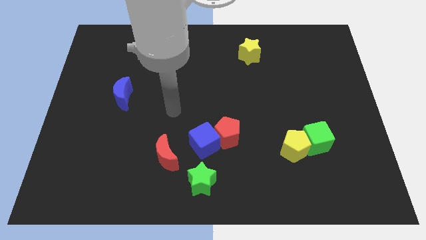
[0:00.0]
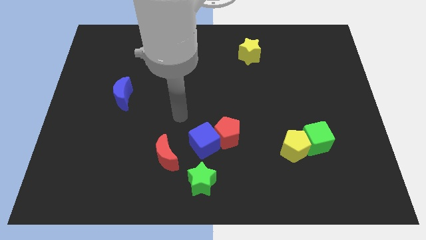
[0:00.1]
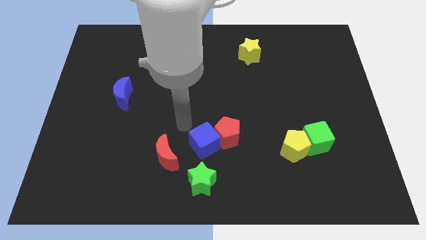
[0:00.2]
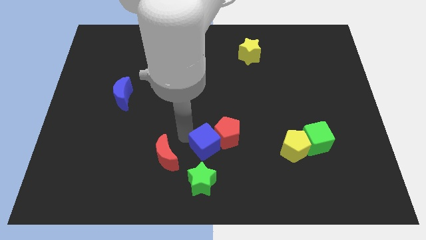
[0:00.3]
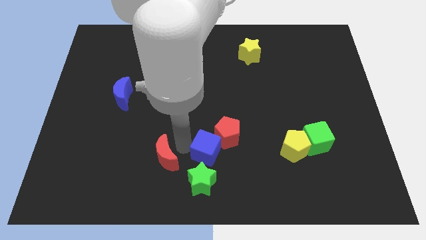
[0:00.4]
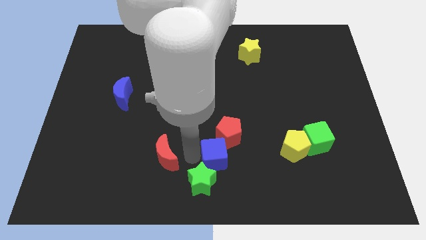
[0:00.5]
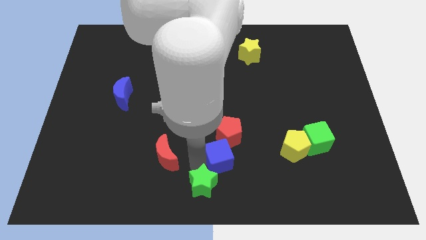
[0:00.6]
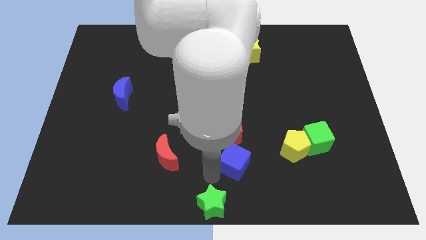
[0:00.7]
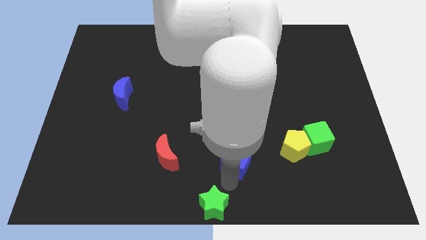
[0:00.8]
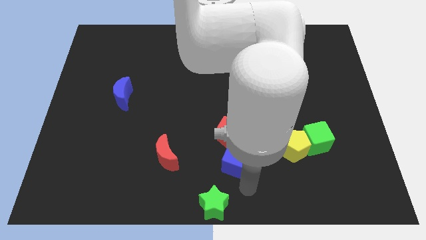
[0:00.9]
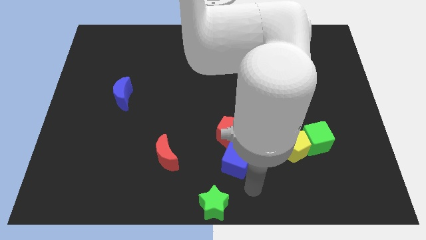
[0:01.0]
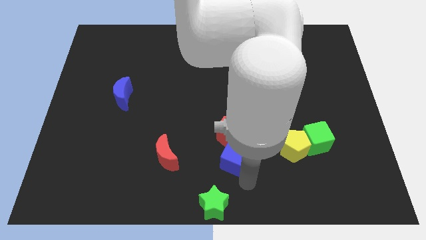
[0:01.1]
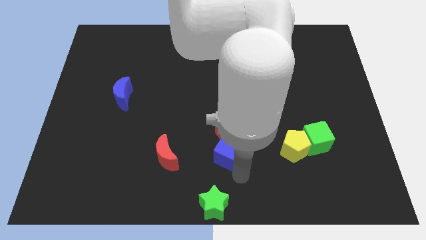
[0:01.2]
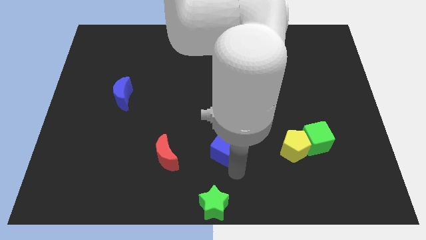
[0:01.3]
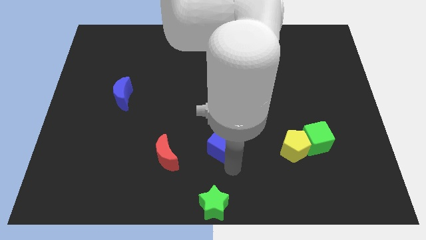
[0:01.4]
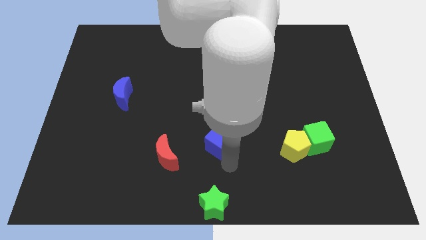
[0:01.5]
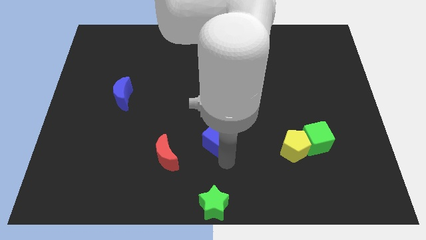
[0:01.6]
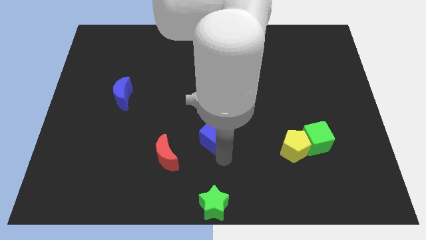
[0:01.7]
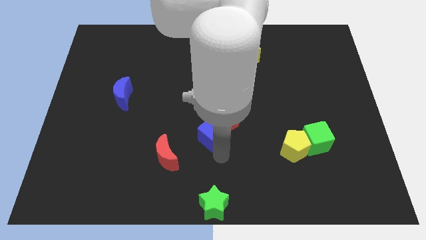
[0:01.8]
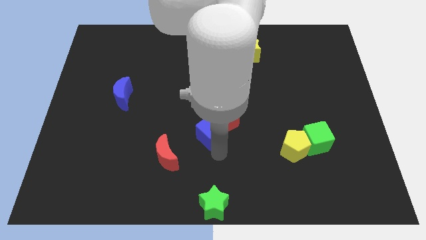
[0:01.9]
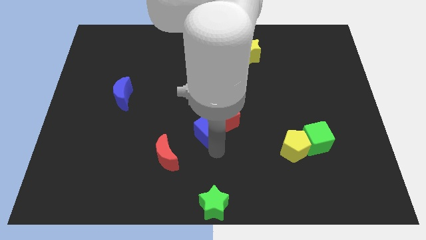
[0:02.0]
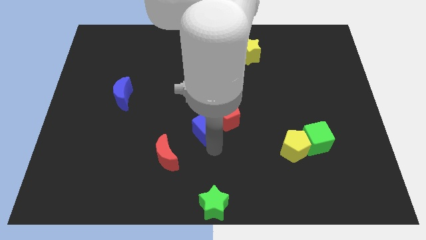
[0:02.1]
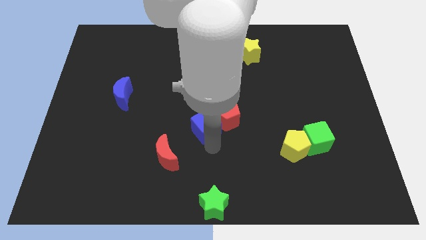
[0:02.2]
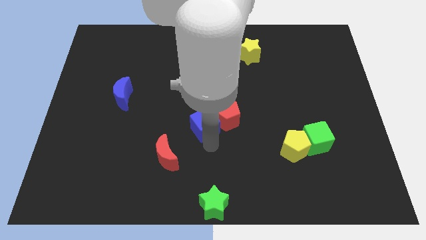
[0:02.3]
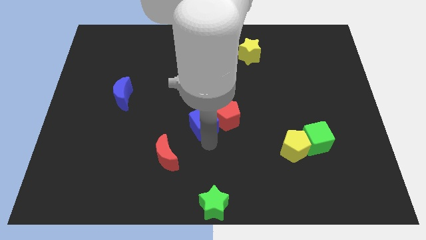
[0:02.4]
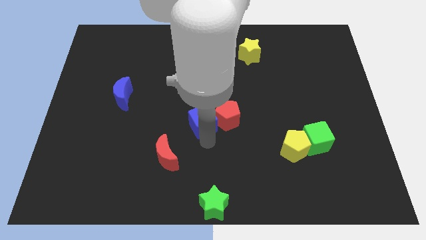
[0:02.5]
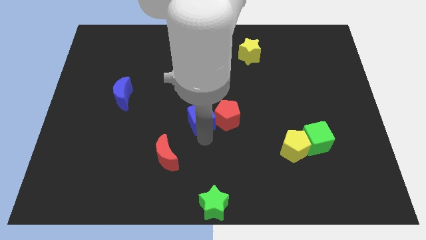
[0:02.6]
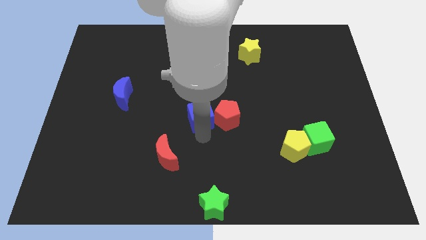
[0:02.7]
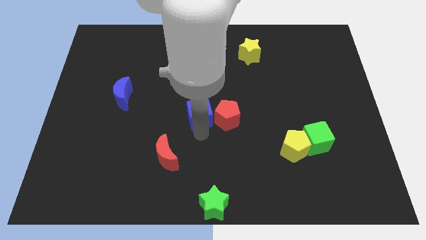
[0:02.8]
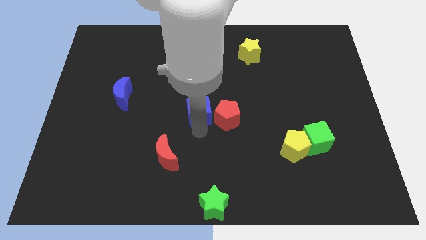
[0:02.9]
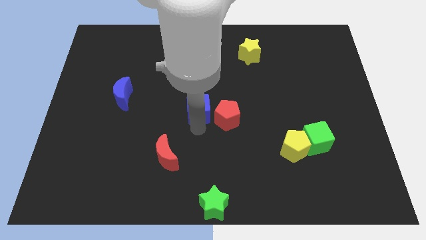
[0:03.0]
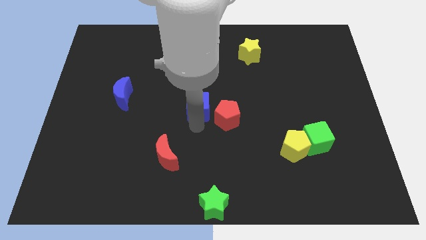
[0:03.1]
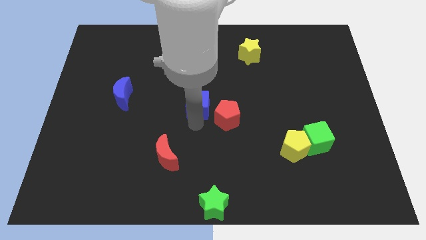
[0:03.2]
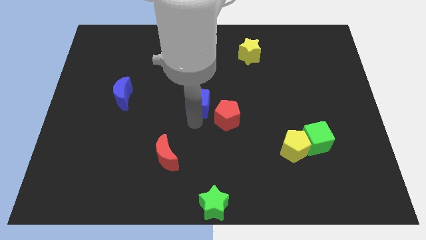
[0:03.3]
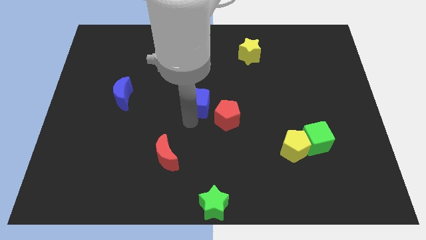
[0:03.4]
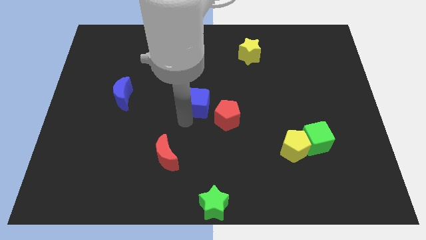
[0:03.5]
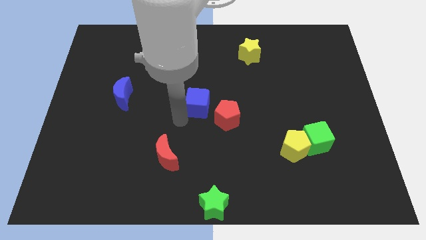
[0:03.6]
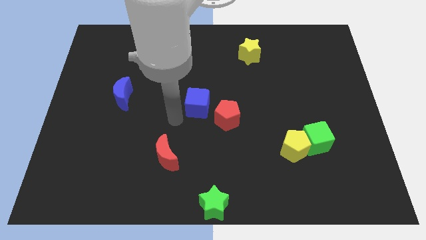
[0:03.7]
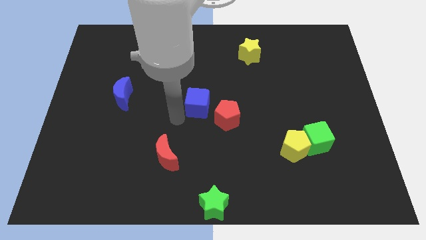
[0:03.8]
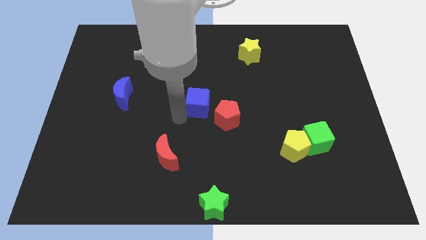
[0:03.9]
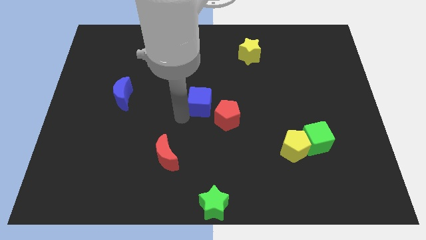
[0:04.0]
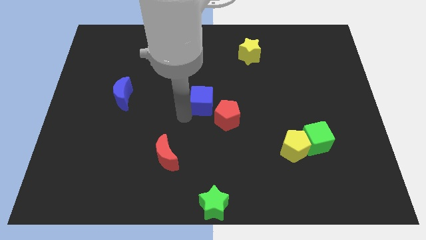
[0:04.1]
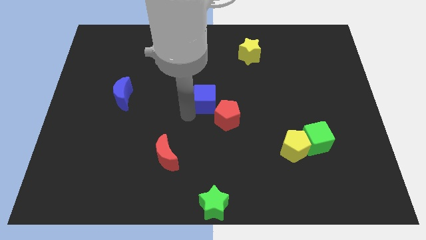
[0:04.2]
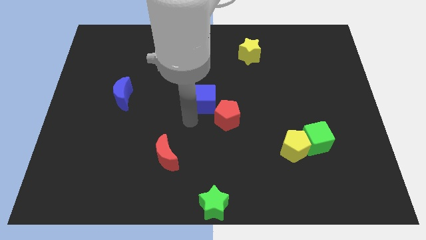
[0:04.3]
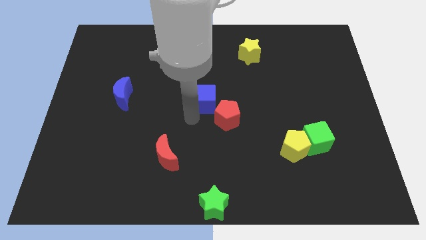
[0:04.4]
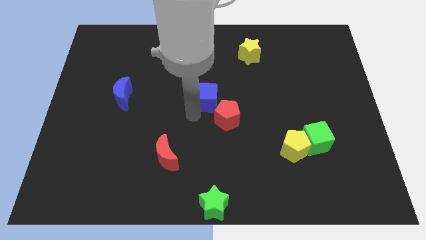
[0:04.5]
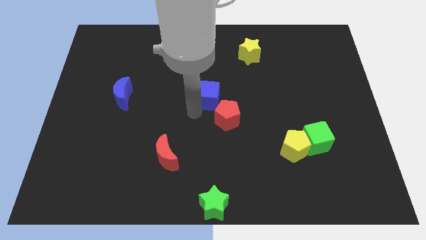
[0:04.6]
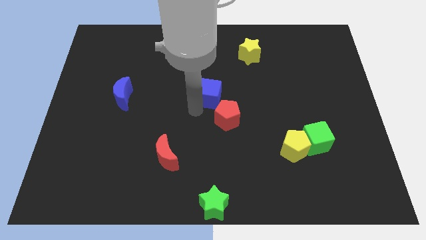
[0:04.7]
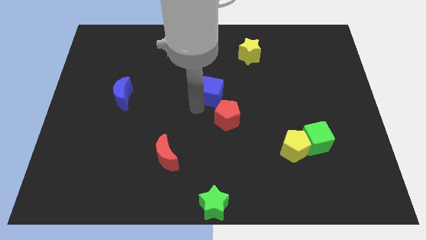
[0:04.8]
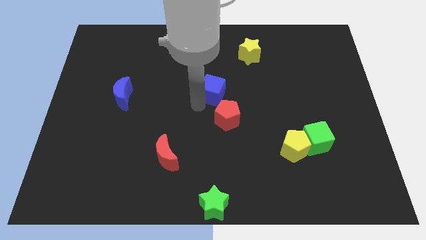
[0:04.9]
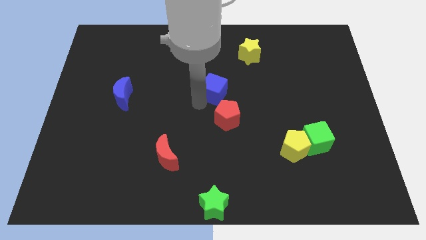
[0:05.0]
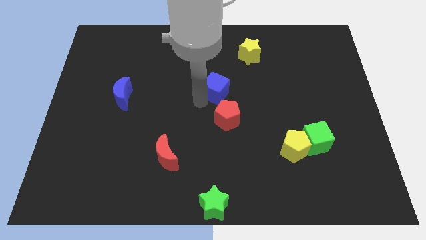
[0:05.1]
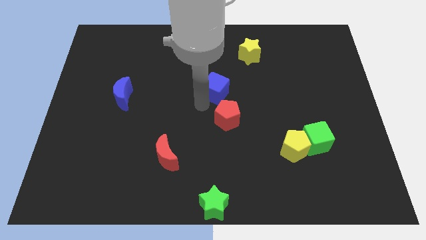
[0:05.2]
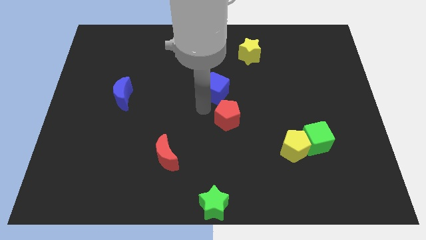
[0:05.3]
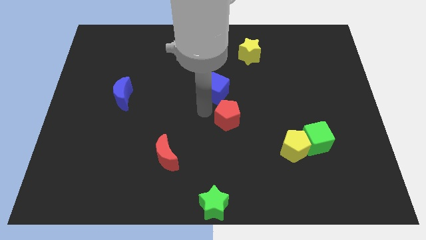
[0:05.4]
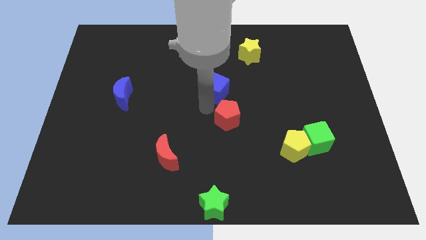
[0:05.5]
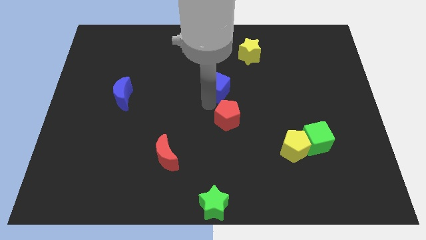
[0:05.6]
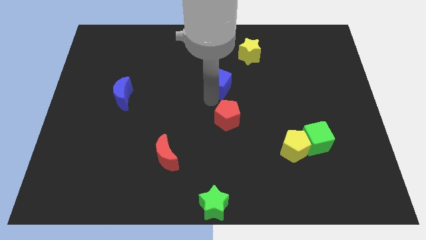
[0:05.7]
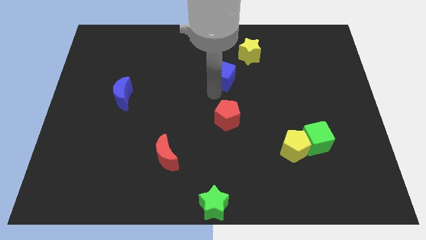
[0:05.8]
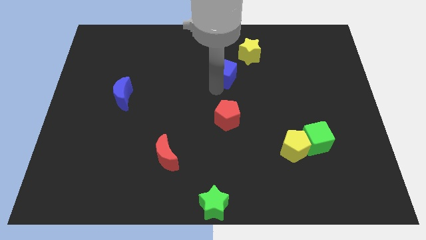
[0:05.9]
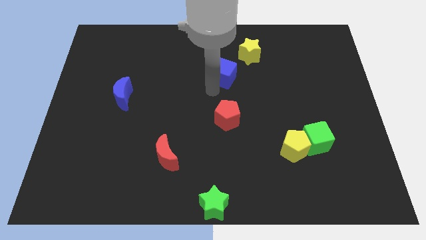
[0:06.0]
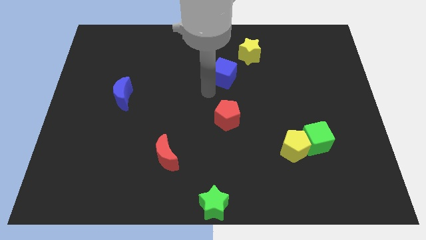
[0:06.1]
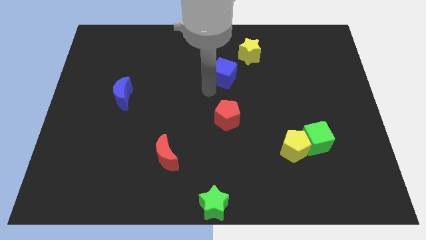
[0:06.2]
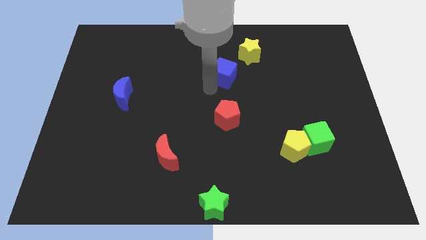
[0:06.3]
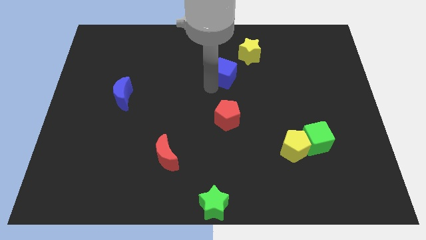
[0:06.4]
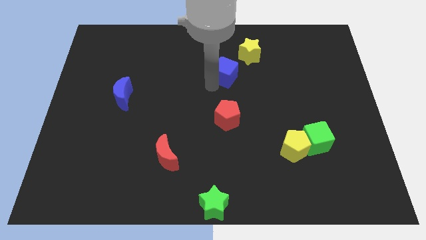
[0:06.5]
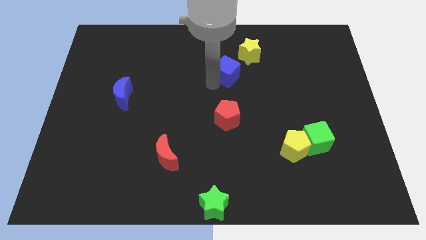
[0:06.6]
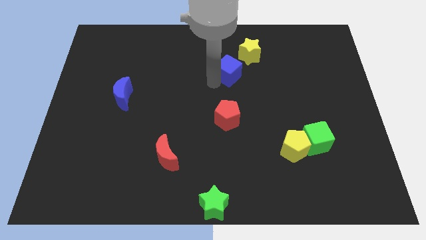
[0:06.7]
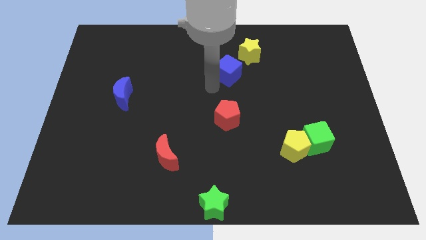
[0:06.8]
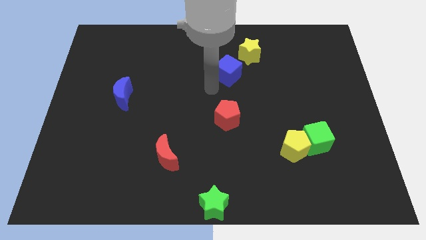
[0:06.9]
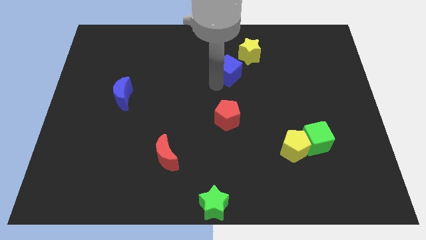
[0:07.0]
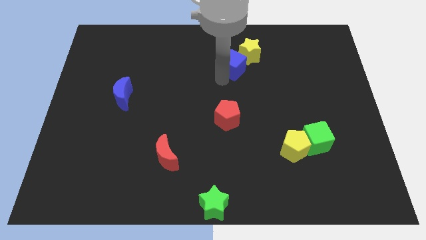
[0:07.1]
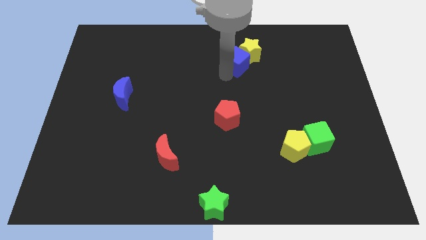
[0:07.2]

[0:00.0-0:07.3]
put the blue cube towards the yellow star
